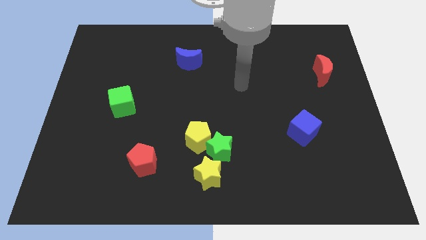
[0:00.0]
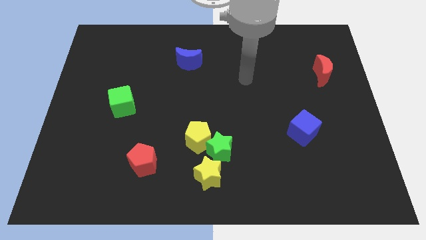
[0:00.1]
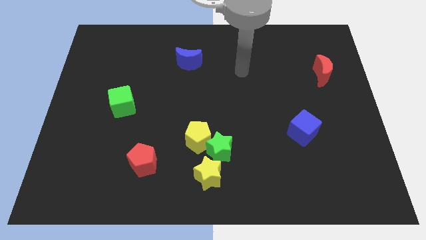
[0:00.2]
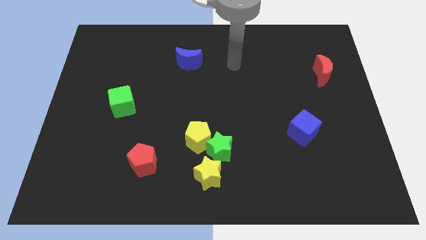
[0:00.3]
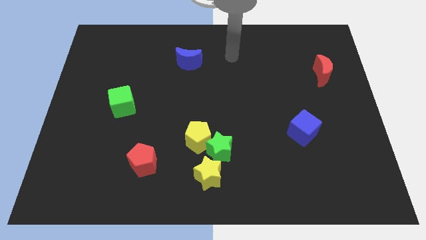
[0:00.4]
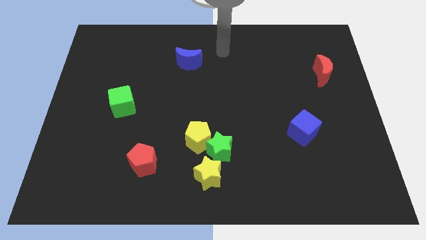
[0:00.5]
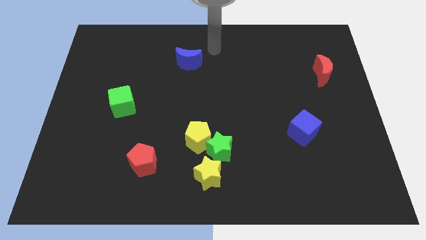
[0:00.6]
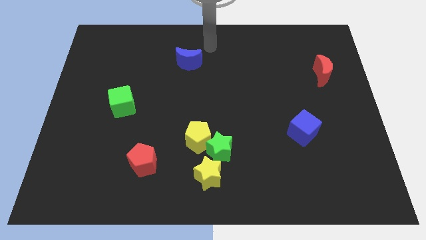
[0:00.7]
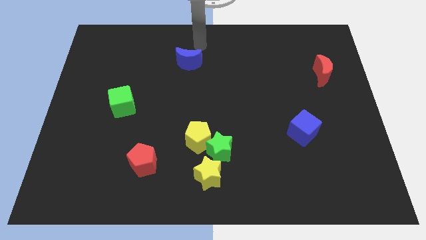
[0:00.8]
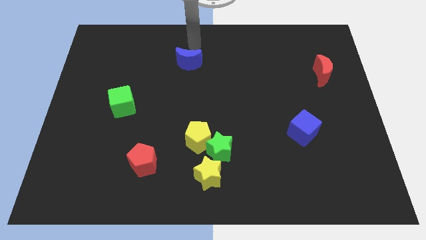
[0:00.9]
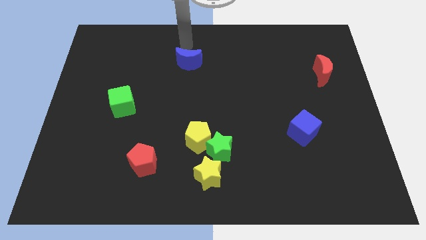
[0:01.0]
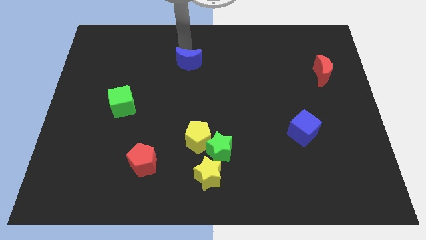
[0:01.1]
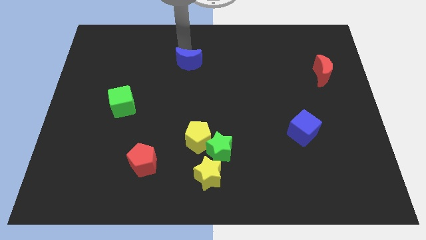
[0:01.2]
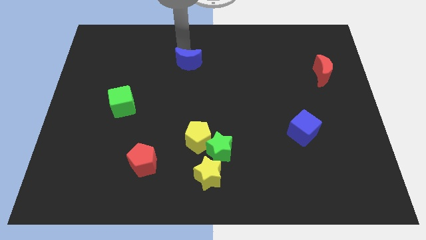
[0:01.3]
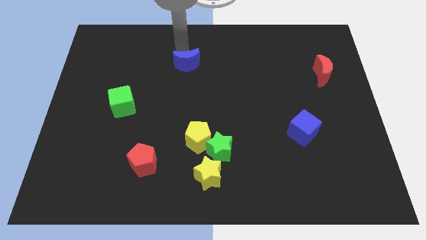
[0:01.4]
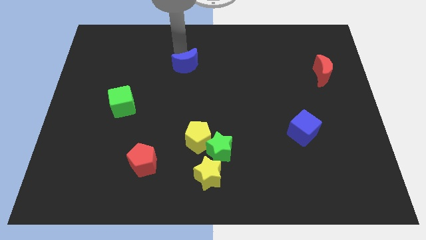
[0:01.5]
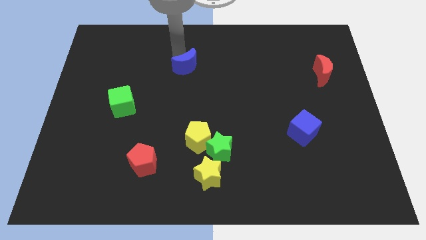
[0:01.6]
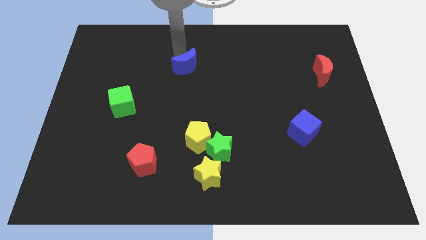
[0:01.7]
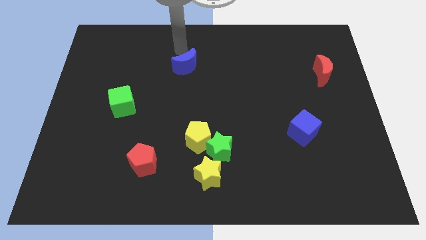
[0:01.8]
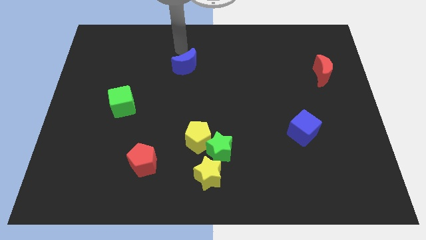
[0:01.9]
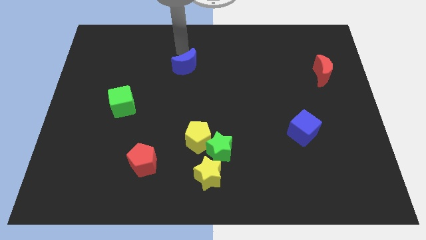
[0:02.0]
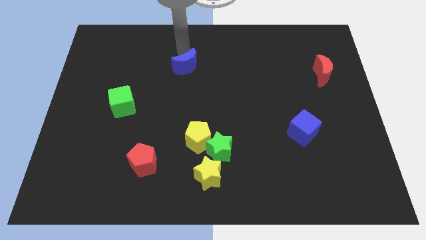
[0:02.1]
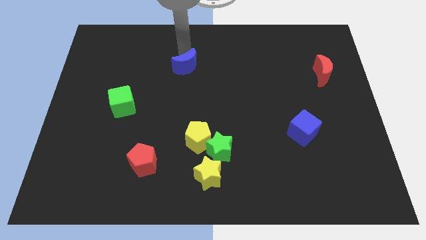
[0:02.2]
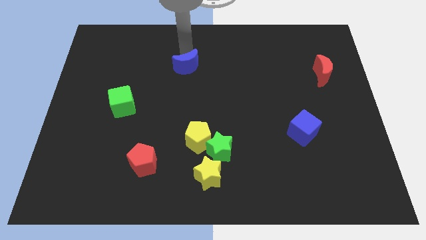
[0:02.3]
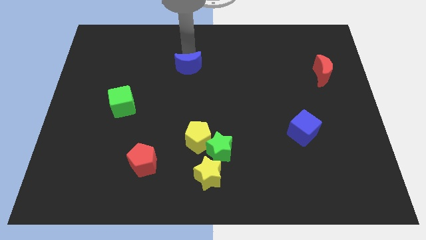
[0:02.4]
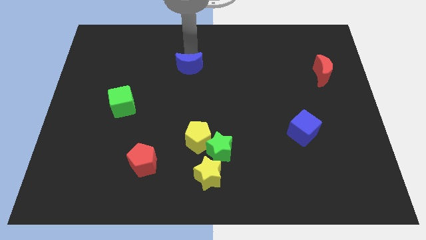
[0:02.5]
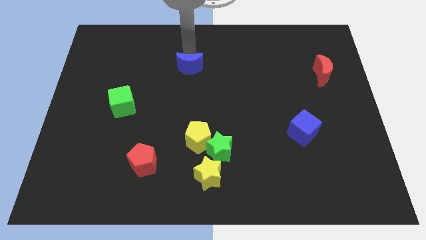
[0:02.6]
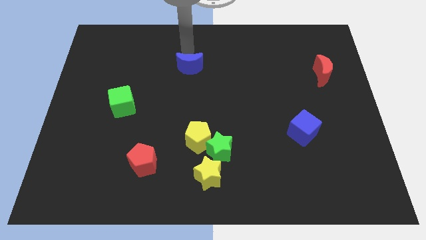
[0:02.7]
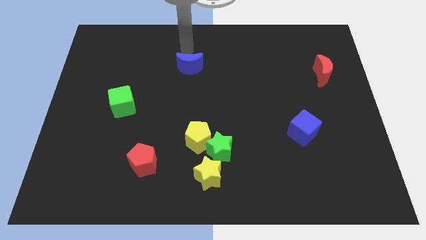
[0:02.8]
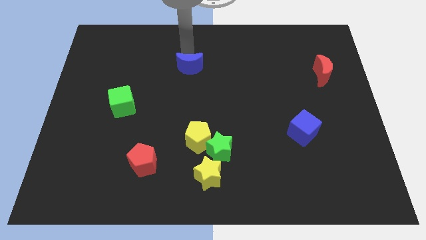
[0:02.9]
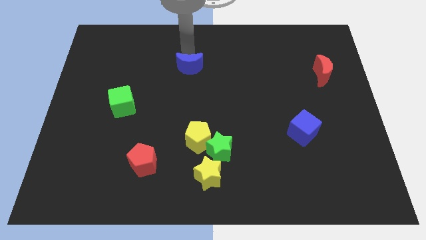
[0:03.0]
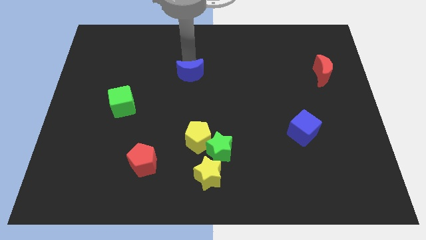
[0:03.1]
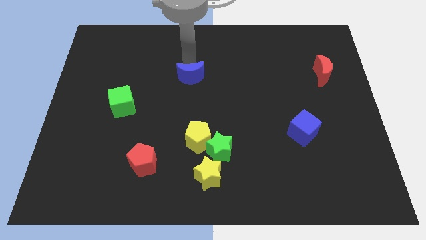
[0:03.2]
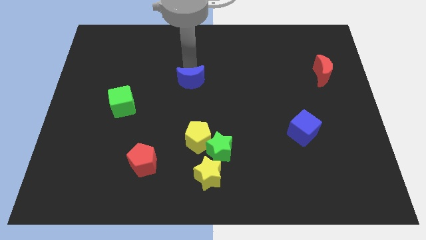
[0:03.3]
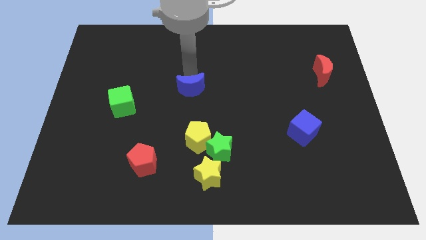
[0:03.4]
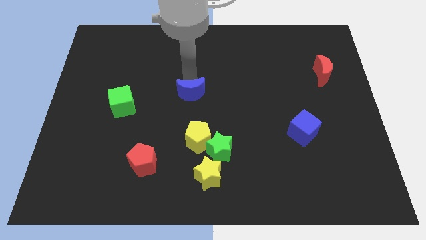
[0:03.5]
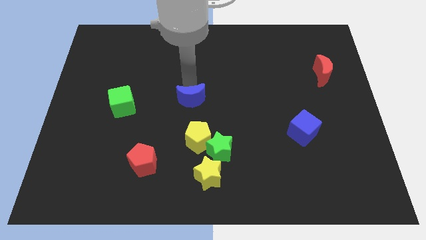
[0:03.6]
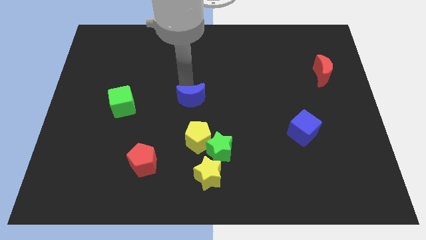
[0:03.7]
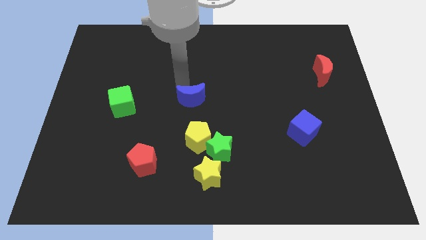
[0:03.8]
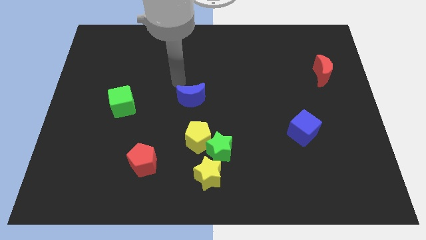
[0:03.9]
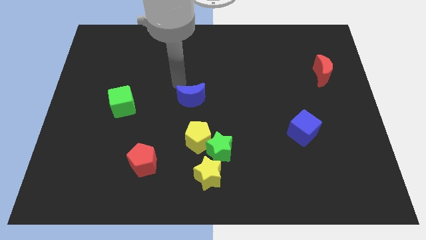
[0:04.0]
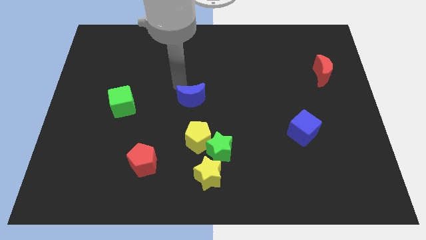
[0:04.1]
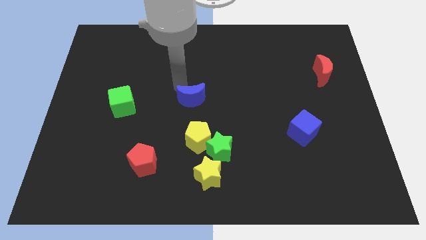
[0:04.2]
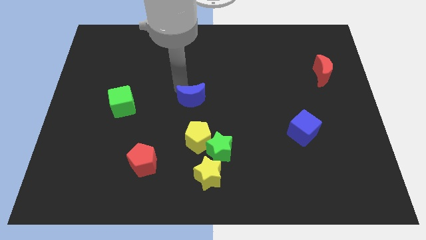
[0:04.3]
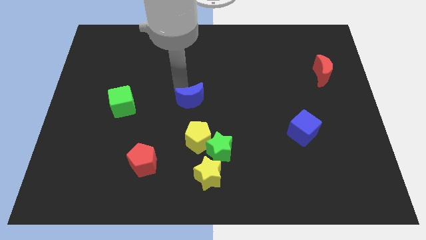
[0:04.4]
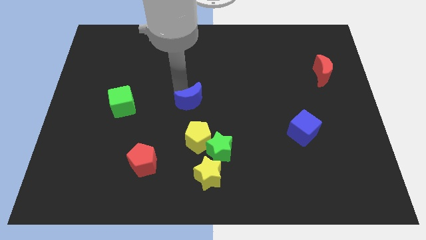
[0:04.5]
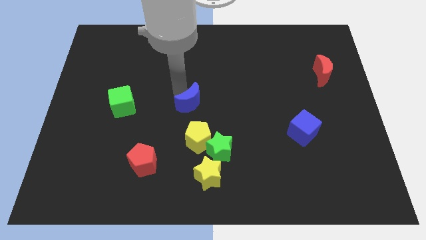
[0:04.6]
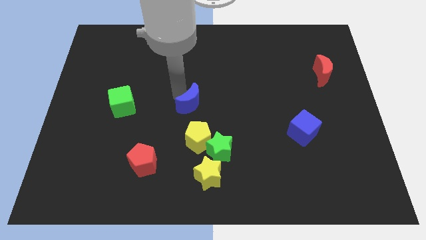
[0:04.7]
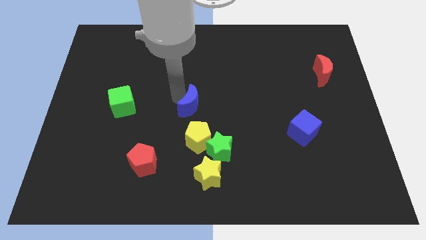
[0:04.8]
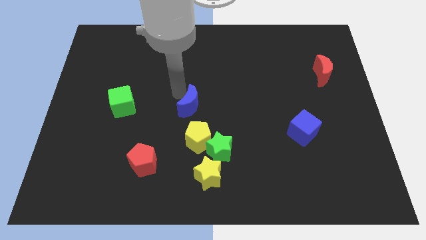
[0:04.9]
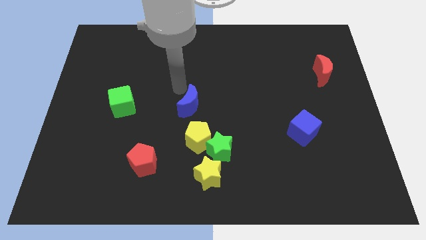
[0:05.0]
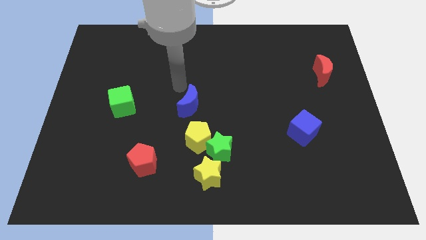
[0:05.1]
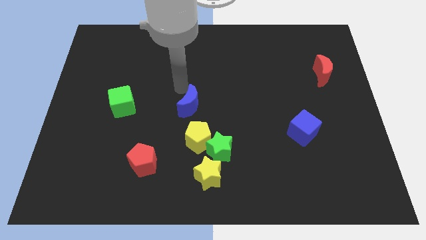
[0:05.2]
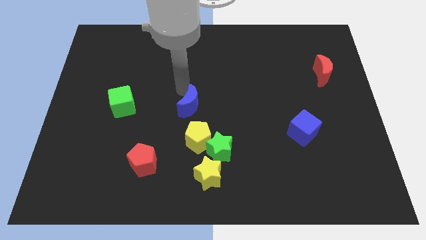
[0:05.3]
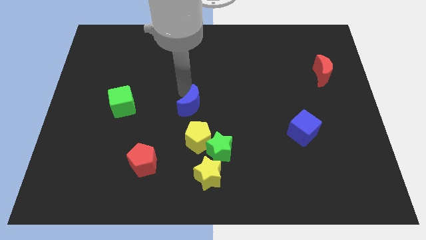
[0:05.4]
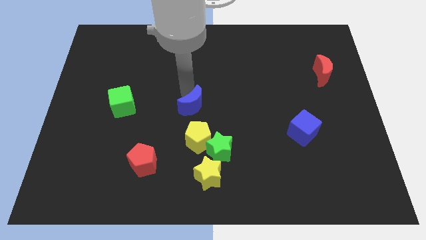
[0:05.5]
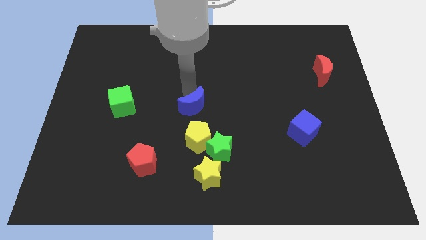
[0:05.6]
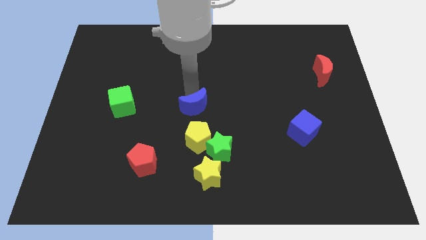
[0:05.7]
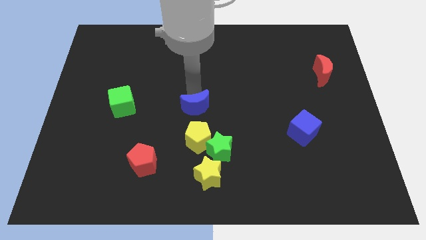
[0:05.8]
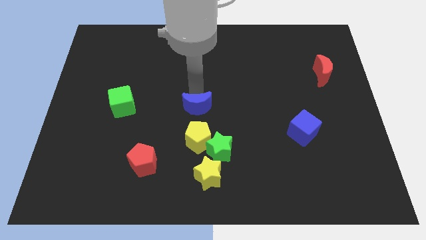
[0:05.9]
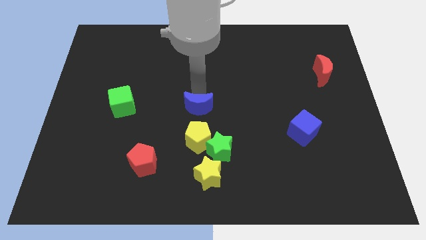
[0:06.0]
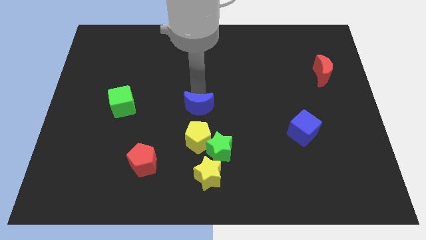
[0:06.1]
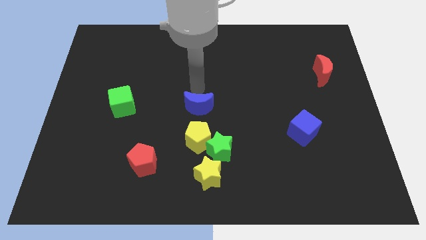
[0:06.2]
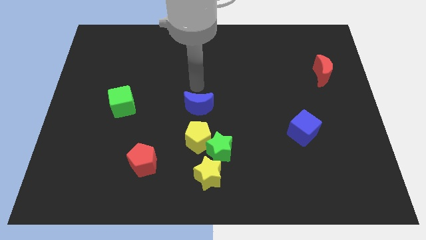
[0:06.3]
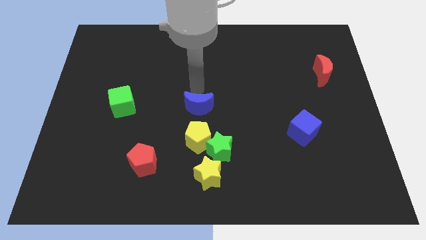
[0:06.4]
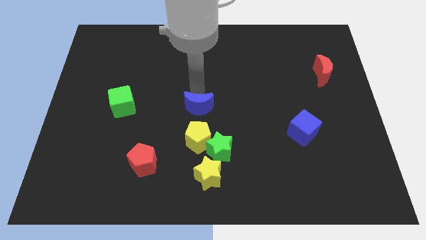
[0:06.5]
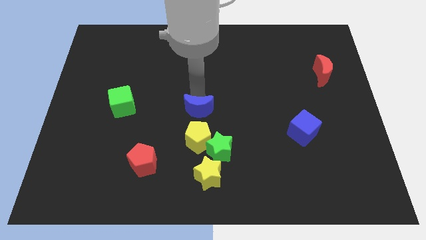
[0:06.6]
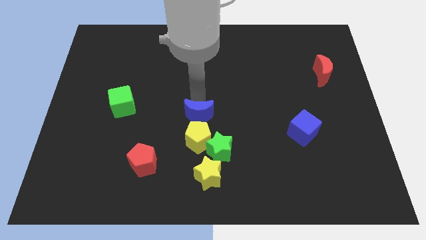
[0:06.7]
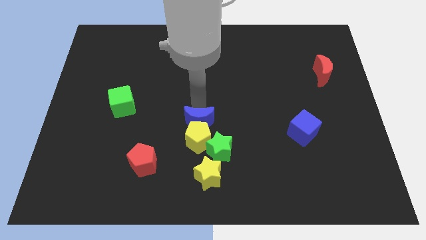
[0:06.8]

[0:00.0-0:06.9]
move the blue moon to the yellow pentagon
